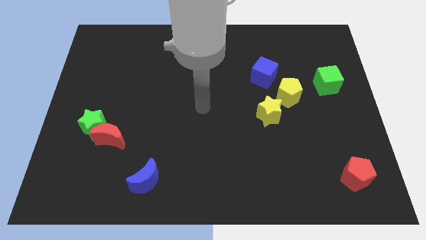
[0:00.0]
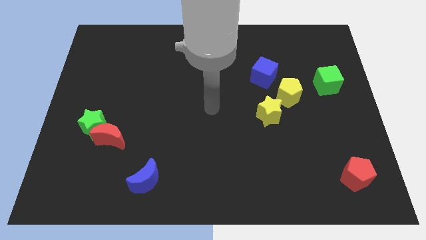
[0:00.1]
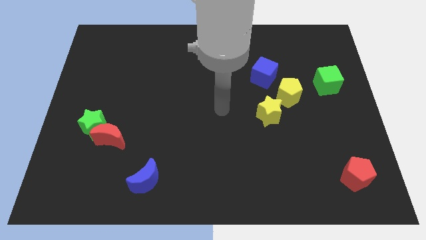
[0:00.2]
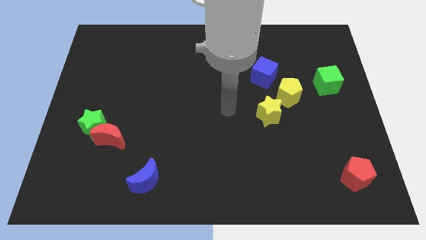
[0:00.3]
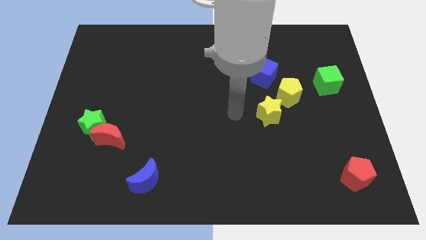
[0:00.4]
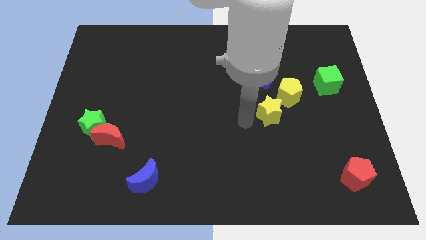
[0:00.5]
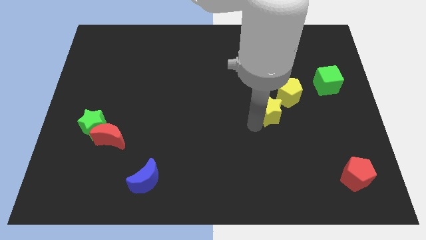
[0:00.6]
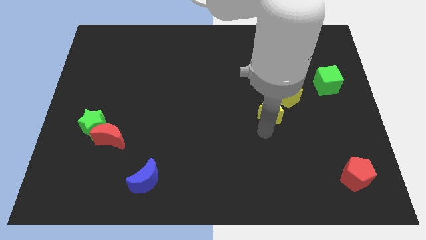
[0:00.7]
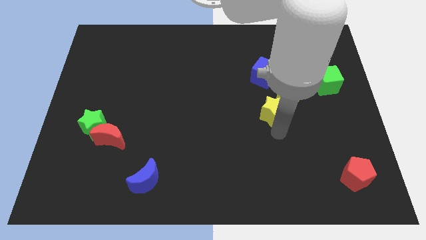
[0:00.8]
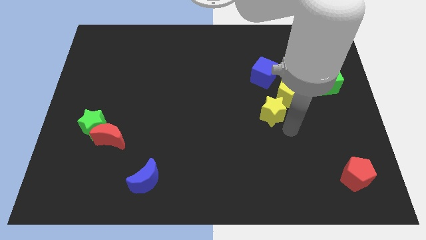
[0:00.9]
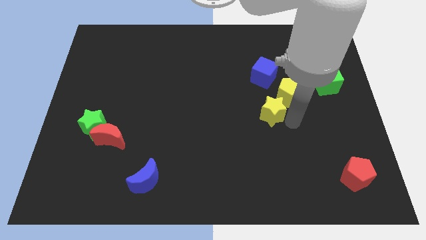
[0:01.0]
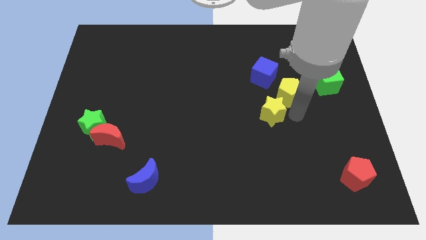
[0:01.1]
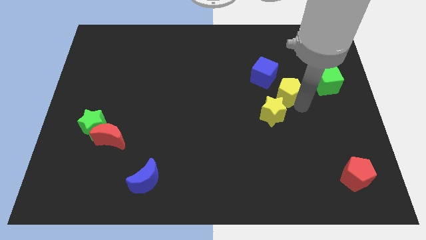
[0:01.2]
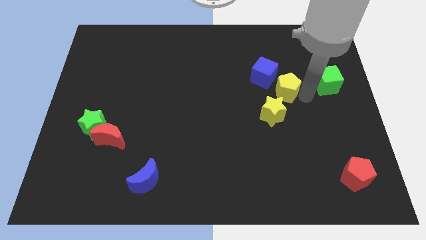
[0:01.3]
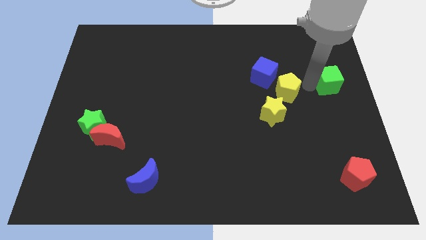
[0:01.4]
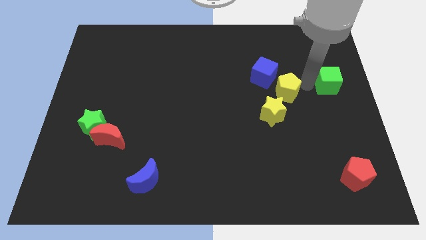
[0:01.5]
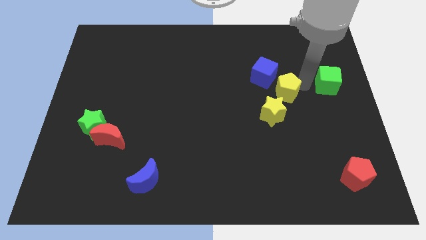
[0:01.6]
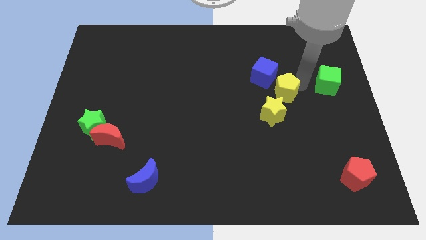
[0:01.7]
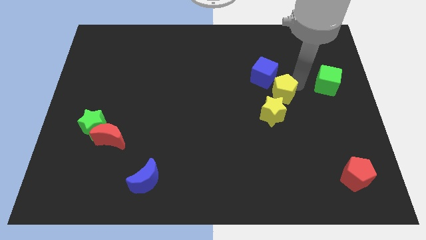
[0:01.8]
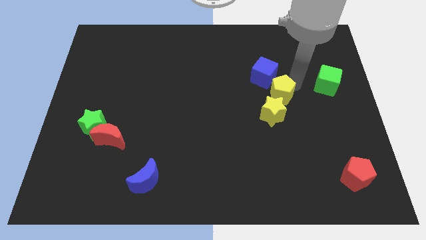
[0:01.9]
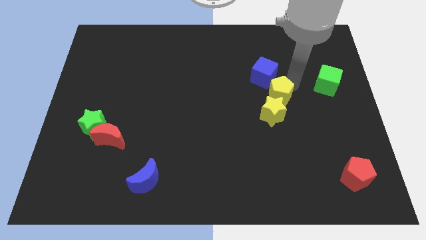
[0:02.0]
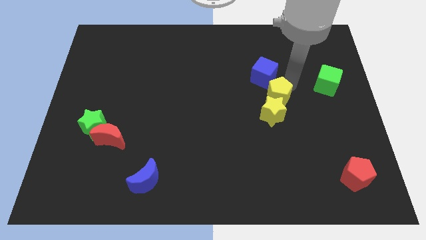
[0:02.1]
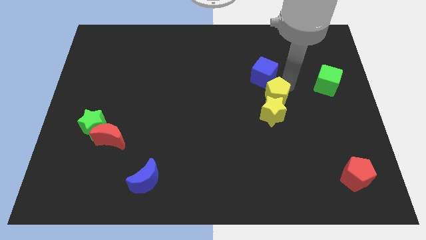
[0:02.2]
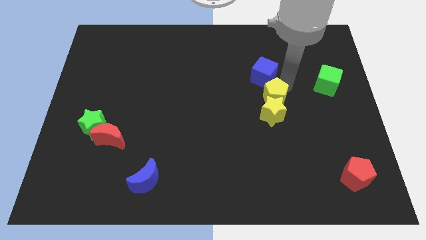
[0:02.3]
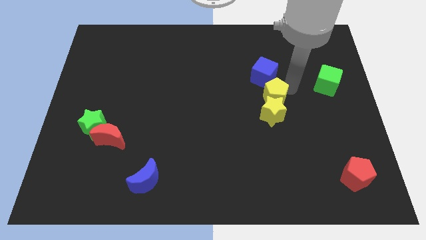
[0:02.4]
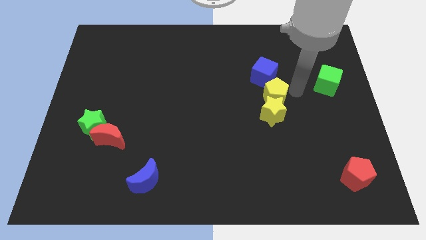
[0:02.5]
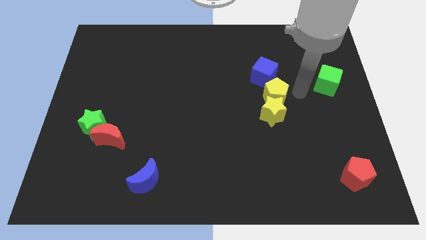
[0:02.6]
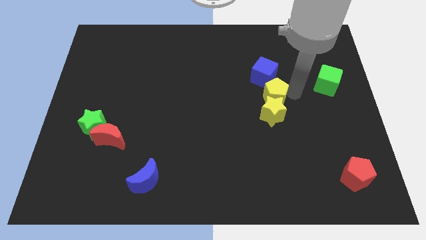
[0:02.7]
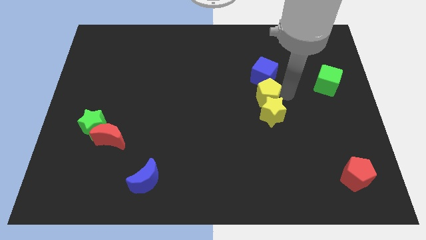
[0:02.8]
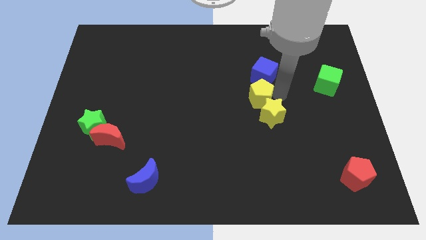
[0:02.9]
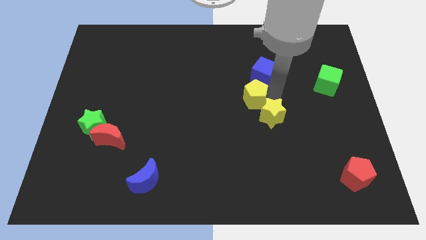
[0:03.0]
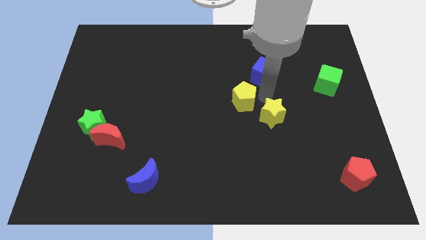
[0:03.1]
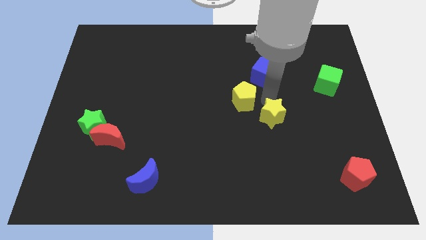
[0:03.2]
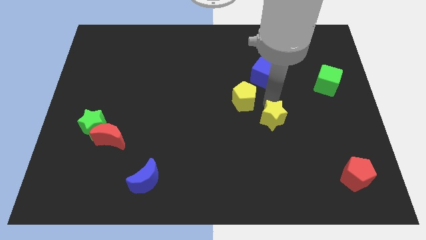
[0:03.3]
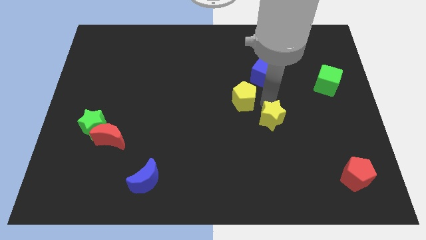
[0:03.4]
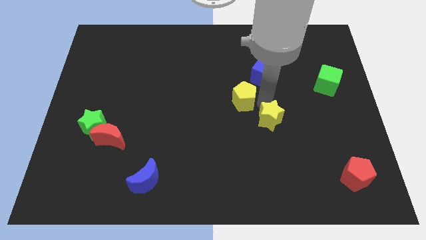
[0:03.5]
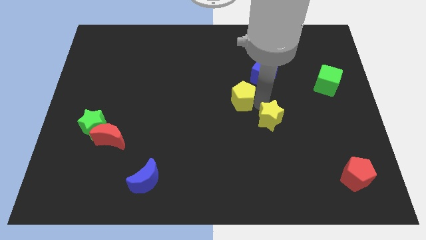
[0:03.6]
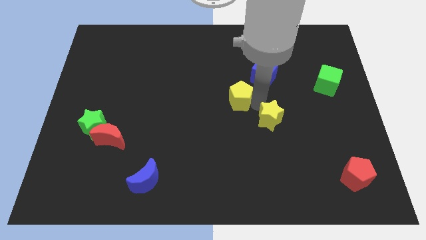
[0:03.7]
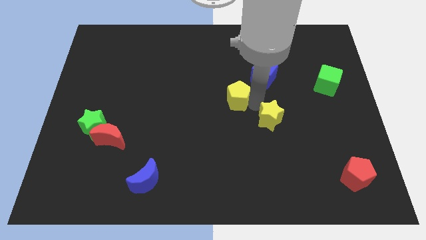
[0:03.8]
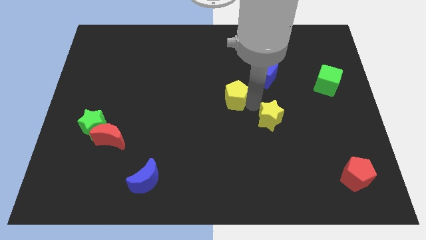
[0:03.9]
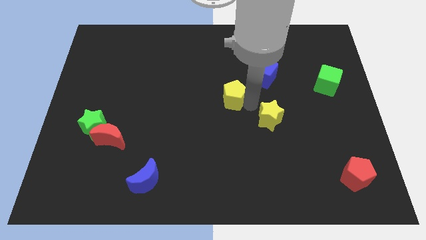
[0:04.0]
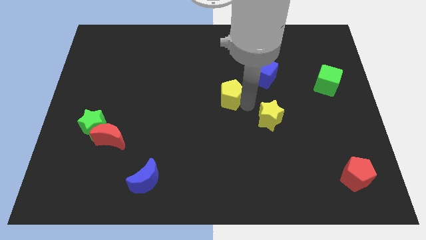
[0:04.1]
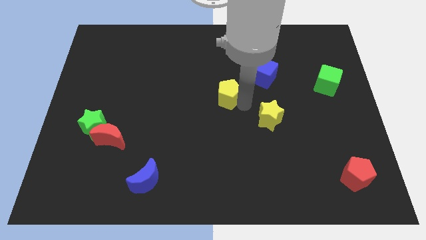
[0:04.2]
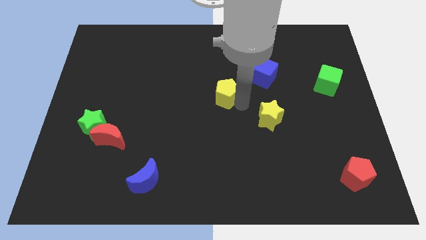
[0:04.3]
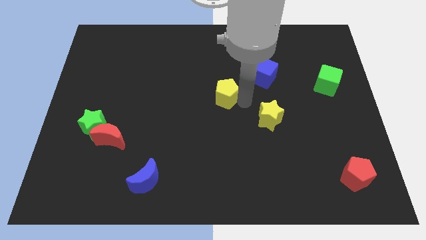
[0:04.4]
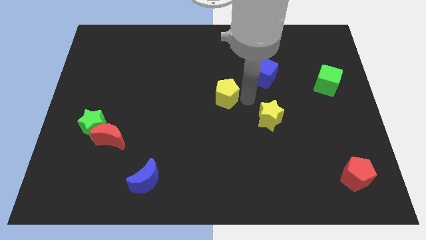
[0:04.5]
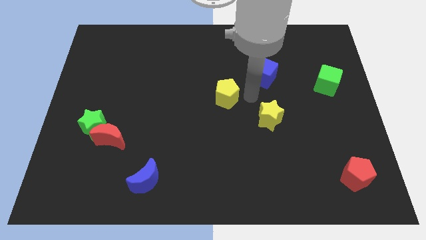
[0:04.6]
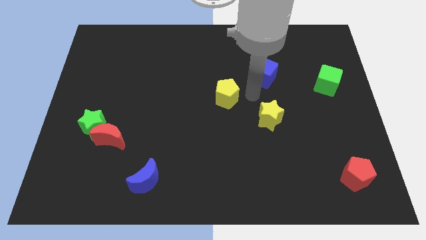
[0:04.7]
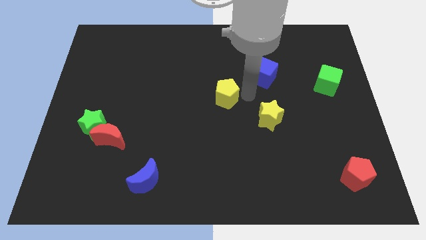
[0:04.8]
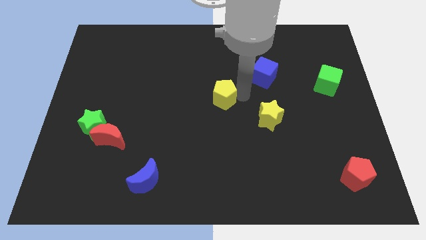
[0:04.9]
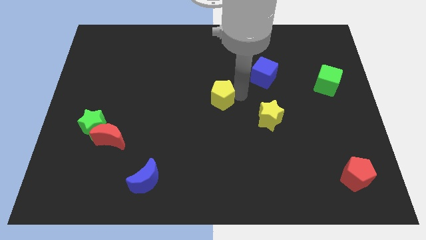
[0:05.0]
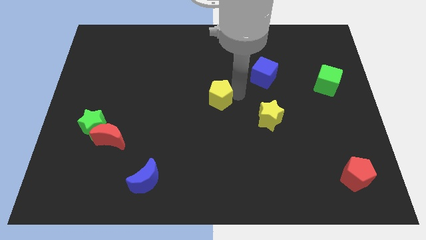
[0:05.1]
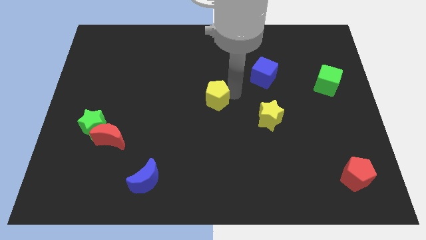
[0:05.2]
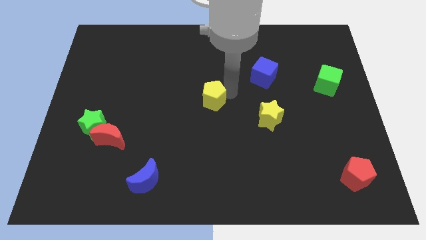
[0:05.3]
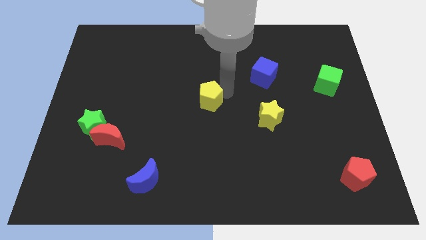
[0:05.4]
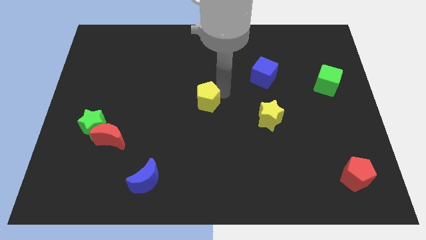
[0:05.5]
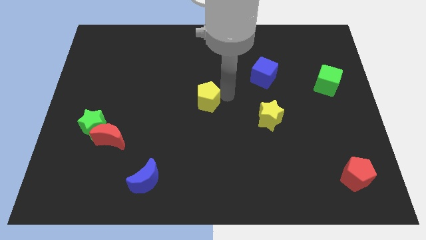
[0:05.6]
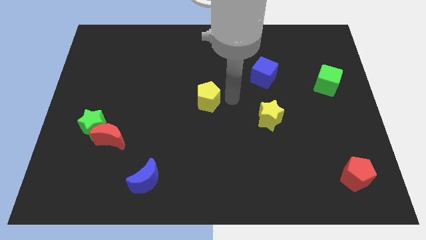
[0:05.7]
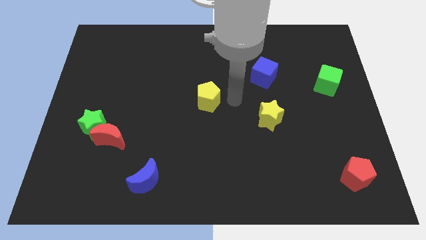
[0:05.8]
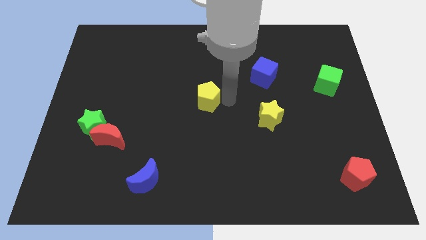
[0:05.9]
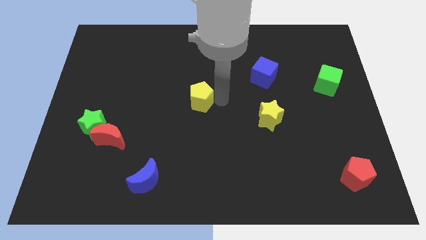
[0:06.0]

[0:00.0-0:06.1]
slide the yellow pentagon left

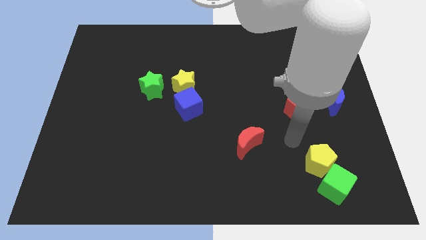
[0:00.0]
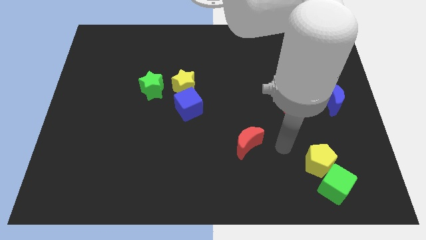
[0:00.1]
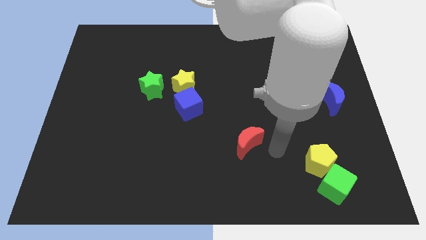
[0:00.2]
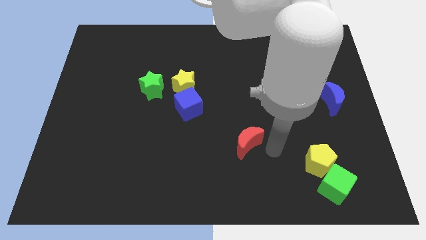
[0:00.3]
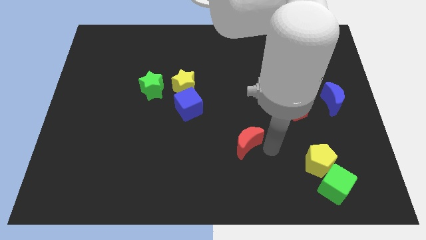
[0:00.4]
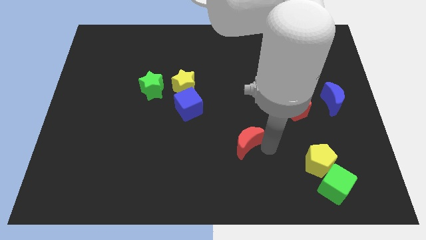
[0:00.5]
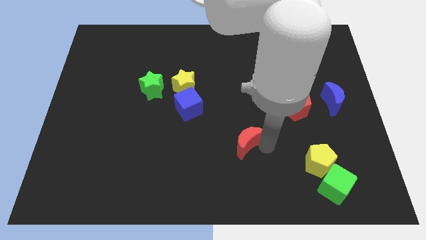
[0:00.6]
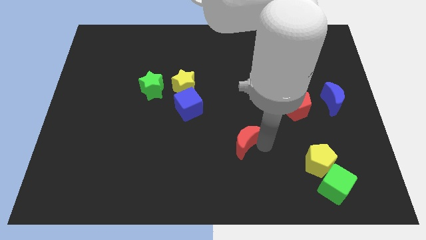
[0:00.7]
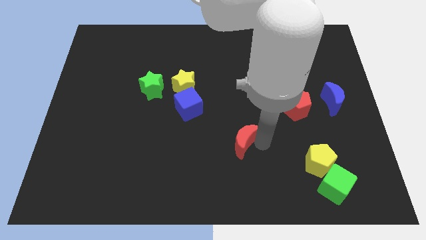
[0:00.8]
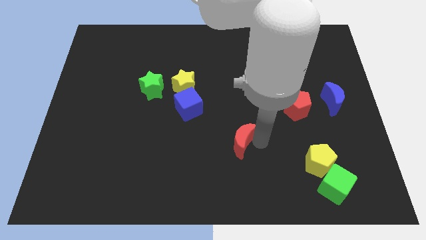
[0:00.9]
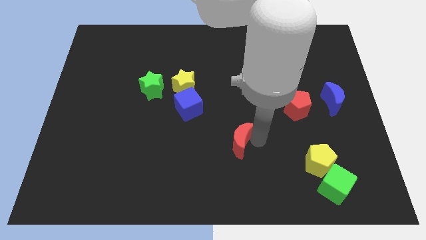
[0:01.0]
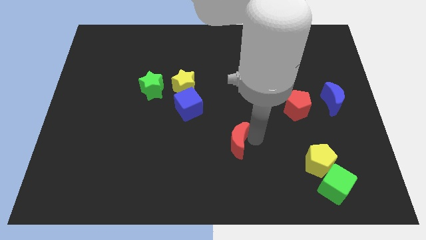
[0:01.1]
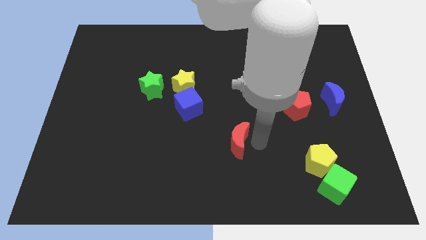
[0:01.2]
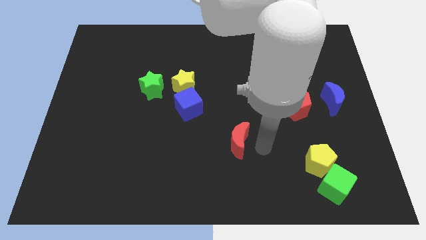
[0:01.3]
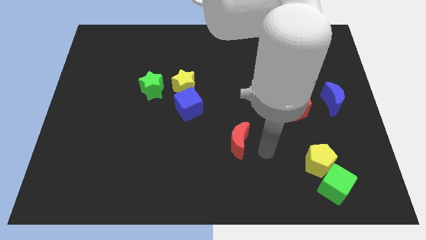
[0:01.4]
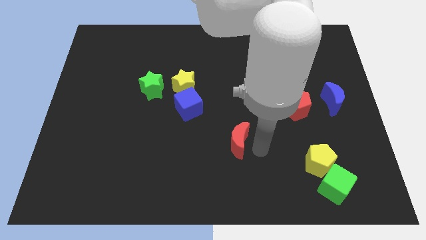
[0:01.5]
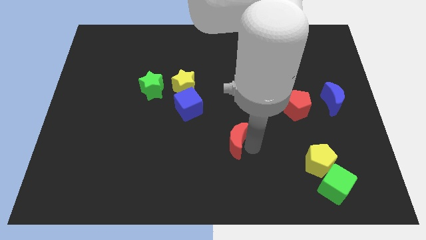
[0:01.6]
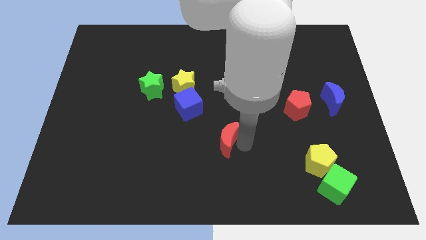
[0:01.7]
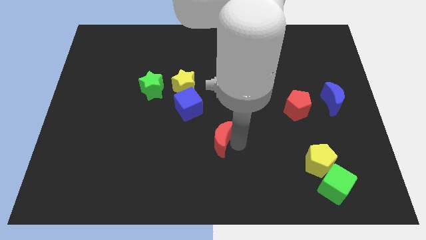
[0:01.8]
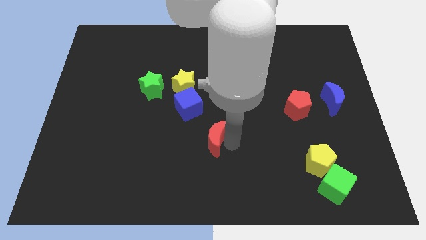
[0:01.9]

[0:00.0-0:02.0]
slide the red moon to the left a bit

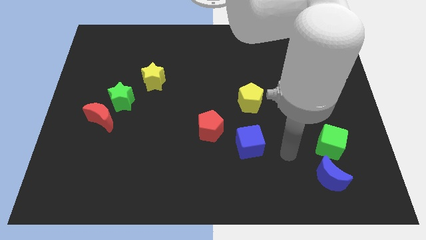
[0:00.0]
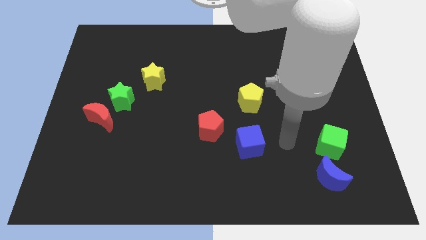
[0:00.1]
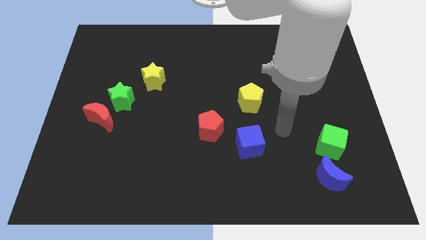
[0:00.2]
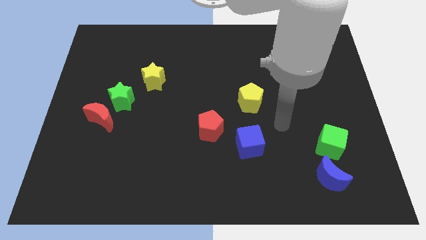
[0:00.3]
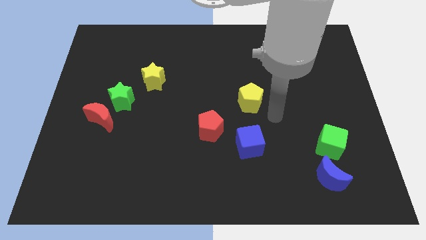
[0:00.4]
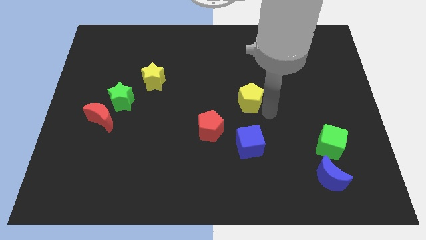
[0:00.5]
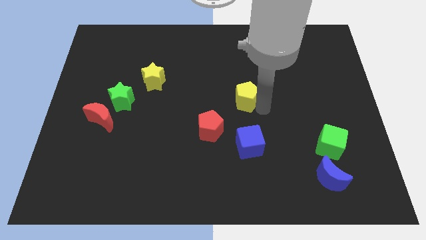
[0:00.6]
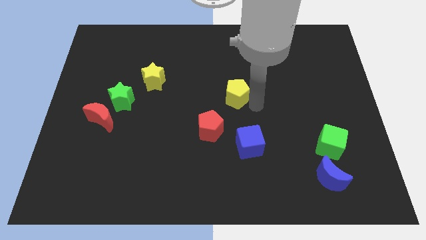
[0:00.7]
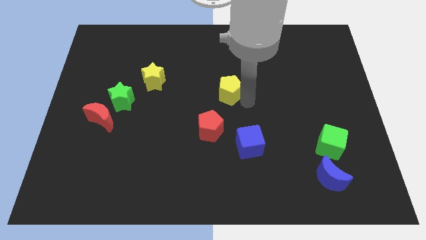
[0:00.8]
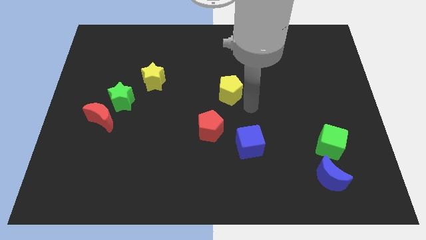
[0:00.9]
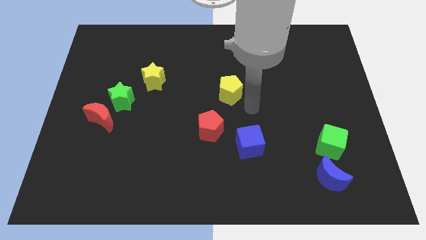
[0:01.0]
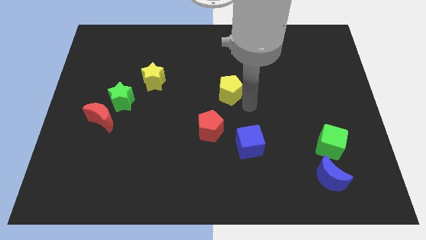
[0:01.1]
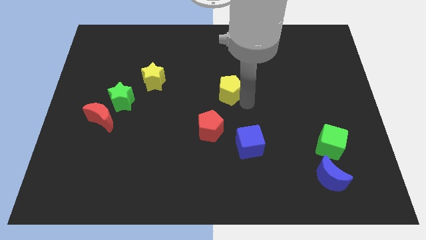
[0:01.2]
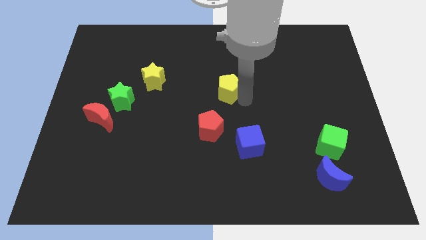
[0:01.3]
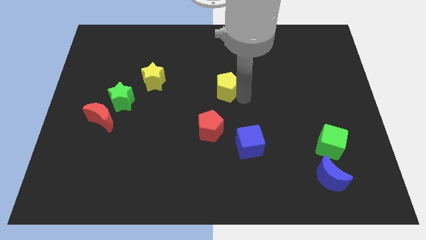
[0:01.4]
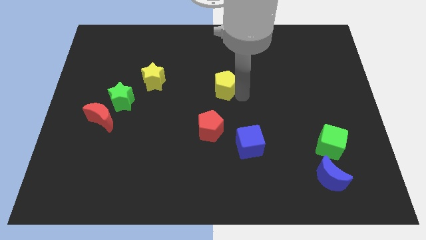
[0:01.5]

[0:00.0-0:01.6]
slide the yellow pentagon diagonally upwards and left somewhat
